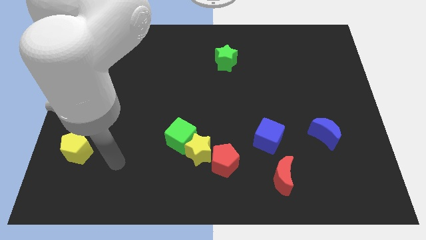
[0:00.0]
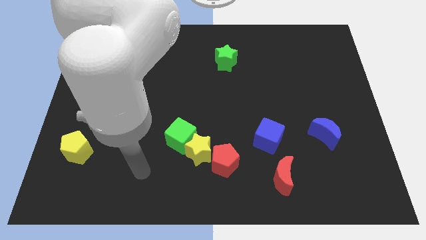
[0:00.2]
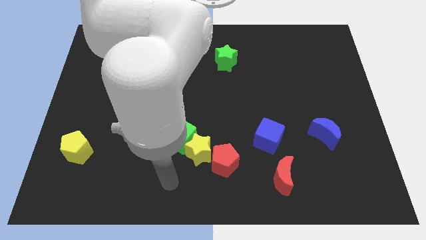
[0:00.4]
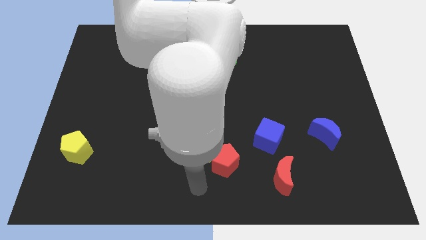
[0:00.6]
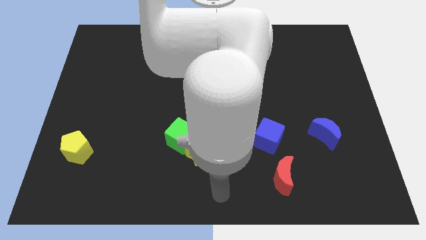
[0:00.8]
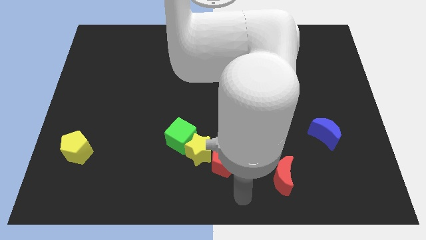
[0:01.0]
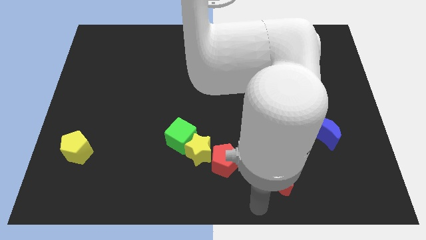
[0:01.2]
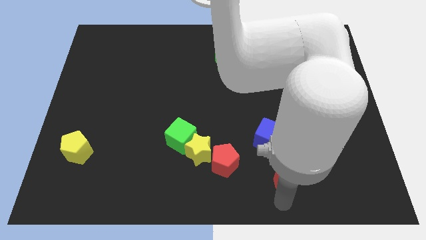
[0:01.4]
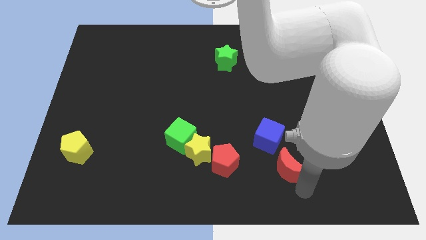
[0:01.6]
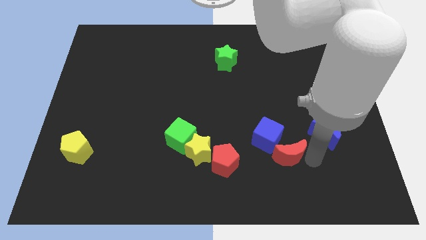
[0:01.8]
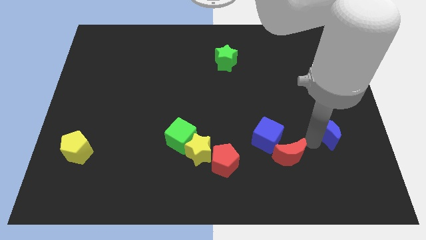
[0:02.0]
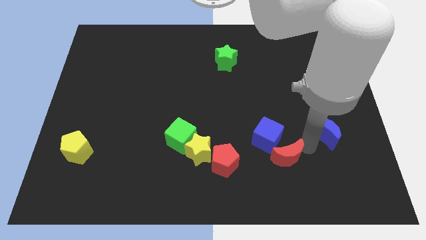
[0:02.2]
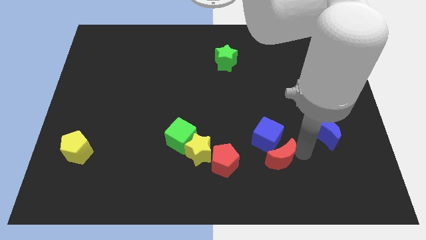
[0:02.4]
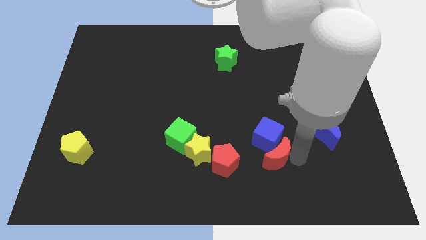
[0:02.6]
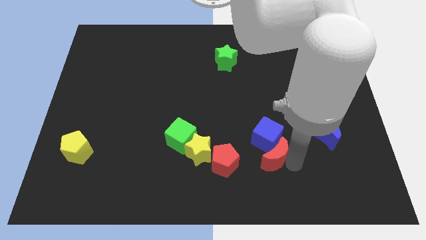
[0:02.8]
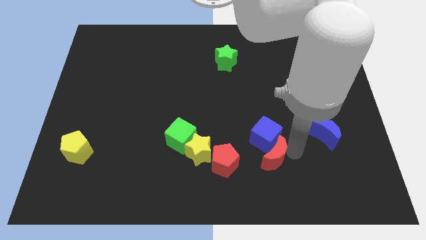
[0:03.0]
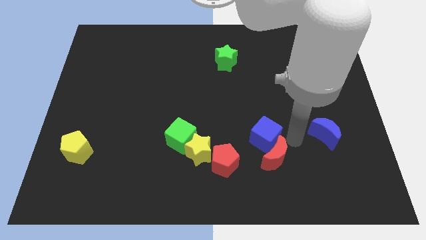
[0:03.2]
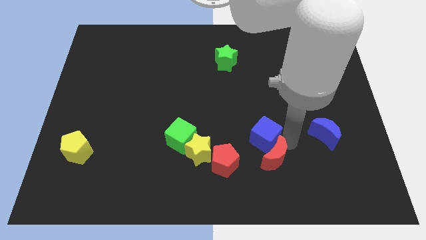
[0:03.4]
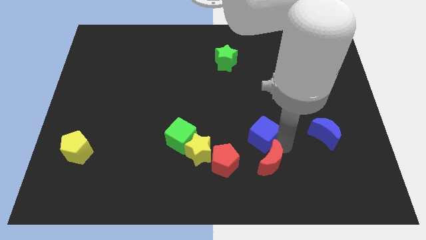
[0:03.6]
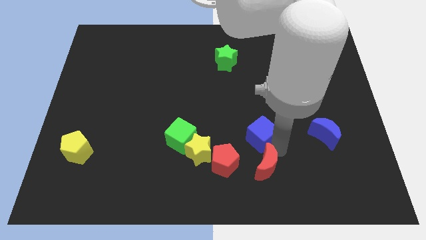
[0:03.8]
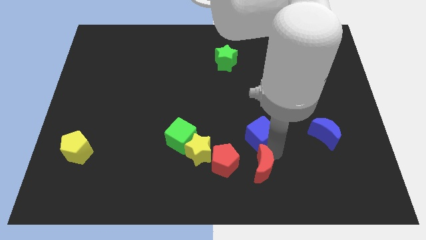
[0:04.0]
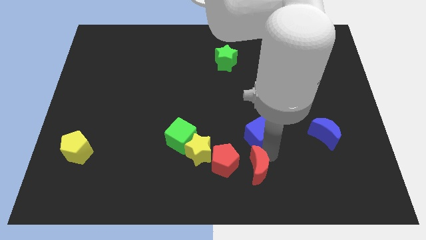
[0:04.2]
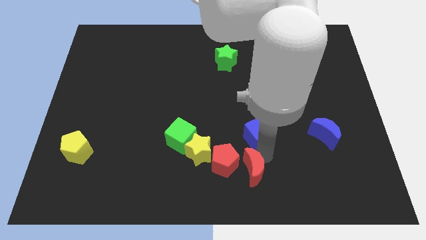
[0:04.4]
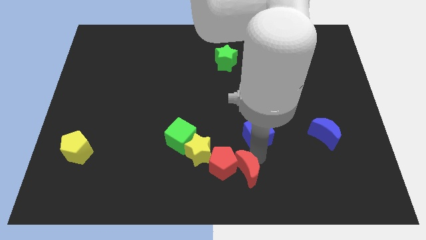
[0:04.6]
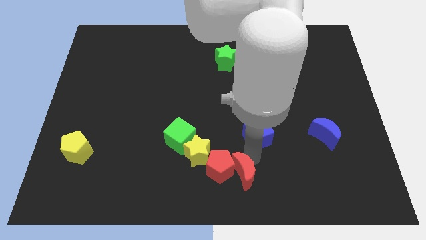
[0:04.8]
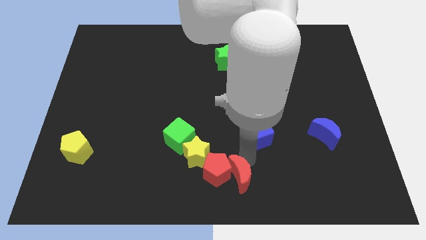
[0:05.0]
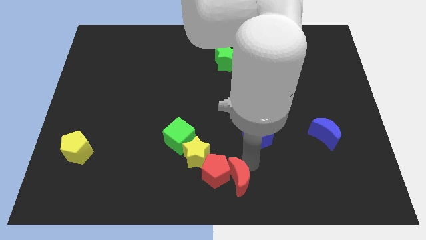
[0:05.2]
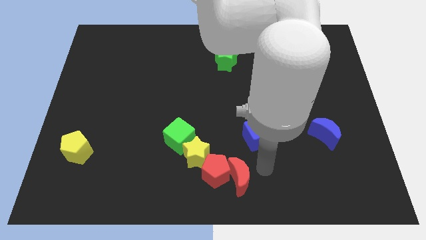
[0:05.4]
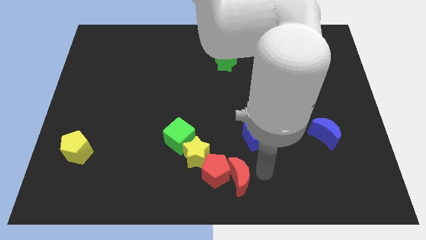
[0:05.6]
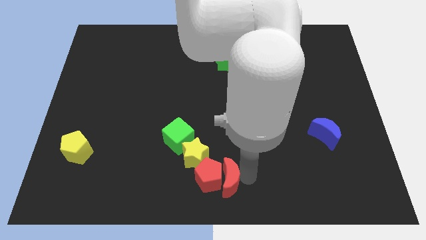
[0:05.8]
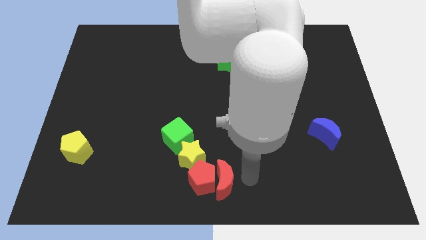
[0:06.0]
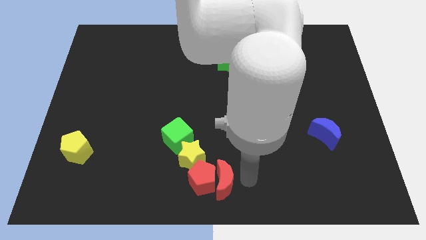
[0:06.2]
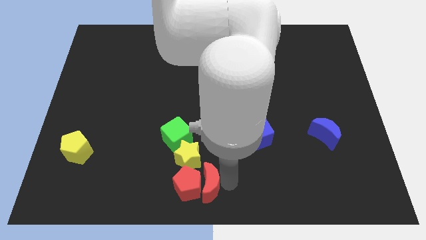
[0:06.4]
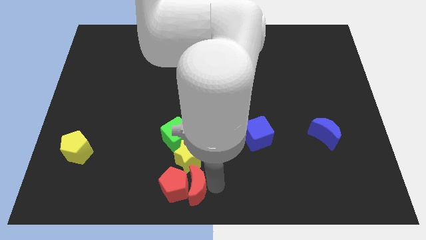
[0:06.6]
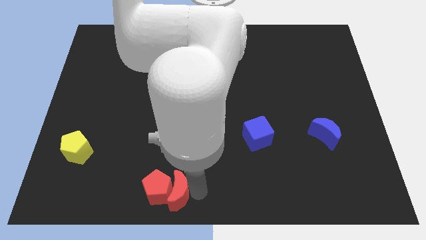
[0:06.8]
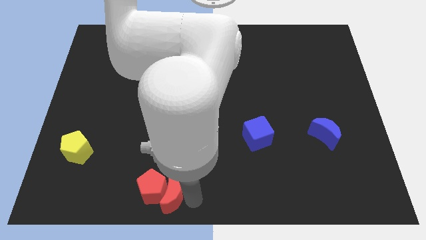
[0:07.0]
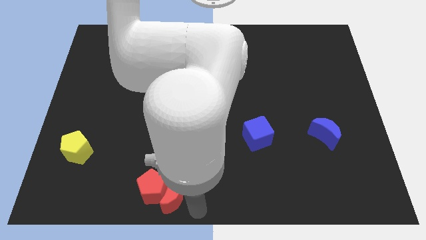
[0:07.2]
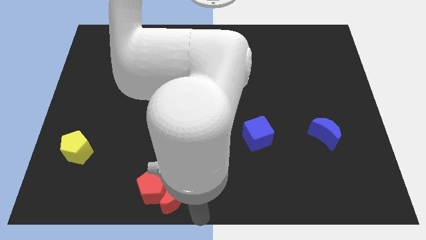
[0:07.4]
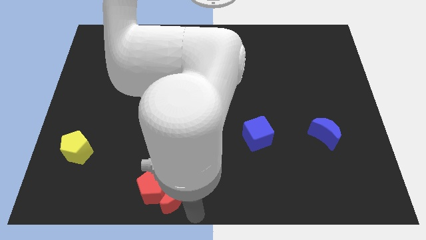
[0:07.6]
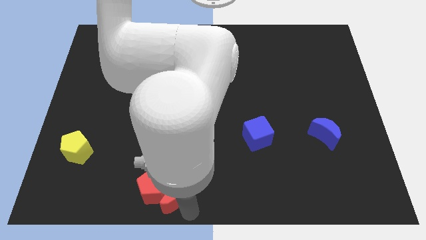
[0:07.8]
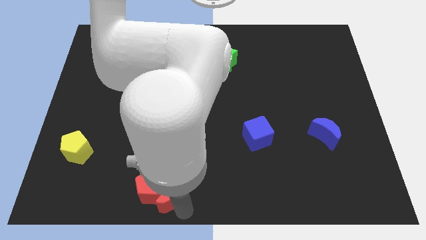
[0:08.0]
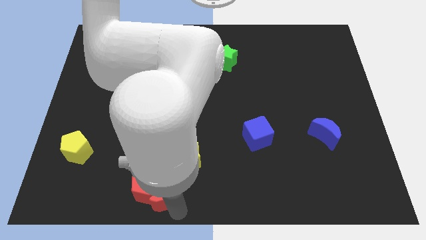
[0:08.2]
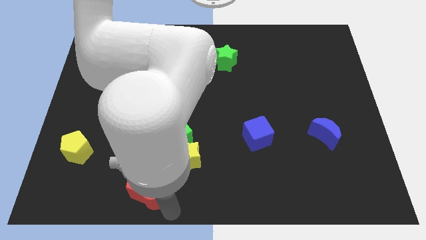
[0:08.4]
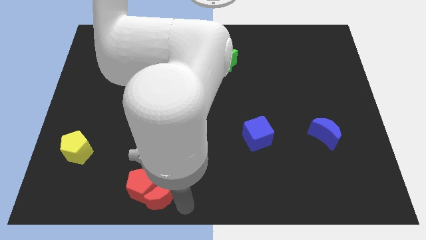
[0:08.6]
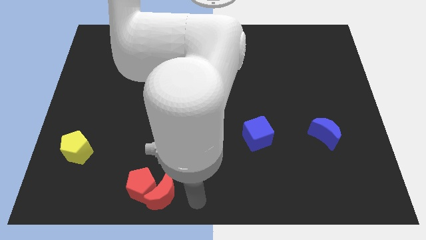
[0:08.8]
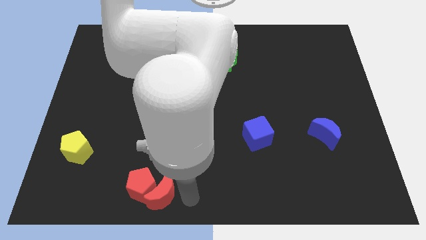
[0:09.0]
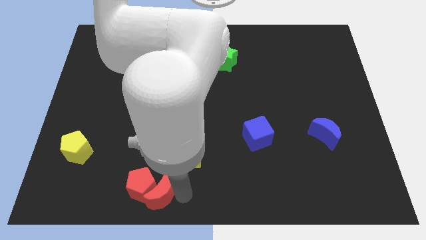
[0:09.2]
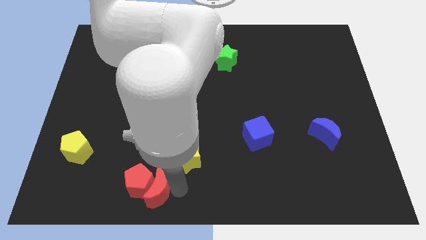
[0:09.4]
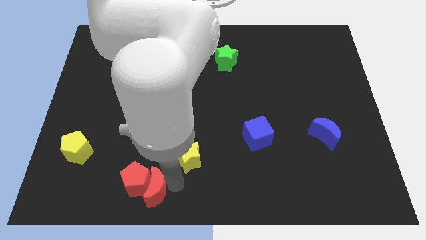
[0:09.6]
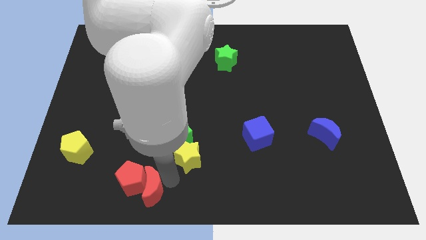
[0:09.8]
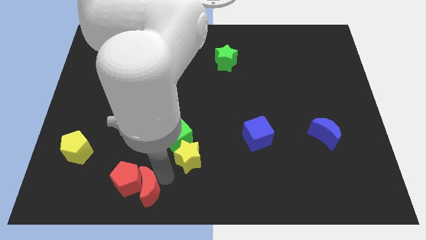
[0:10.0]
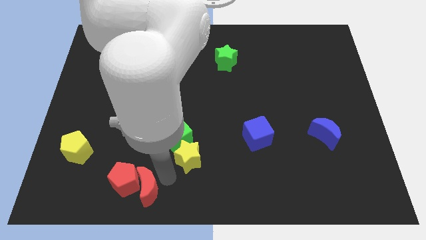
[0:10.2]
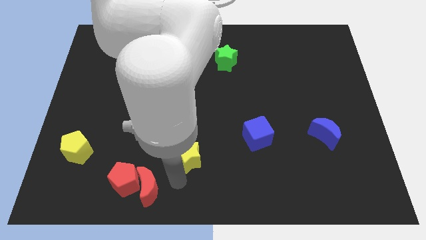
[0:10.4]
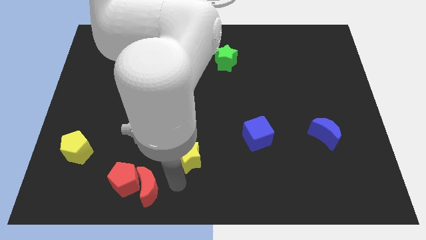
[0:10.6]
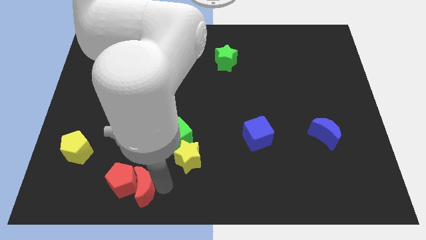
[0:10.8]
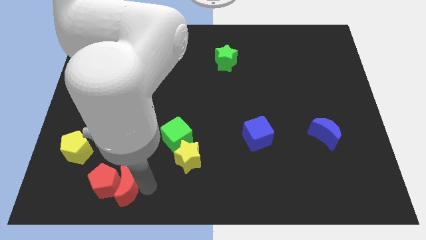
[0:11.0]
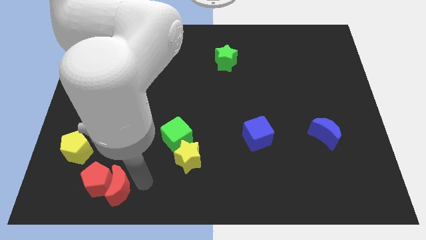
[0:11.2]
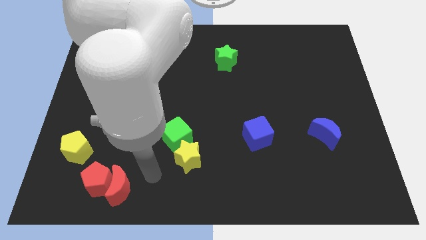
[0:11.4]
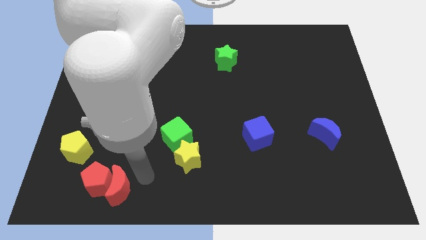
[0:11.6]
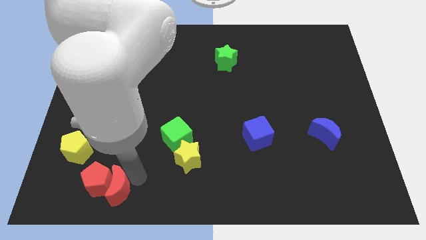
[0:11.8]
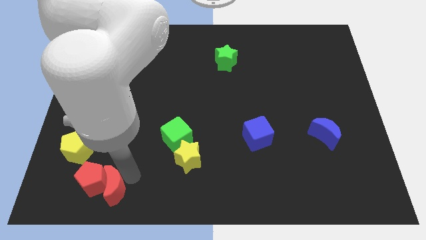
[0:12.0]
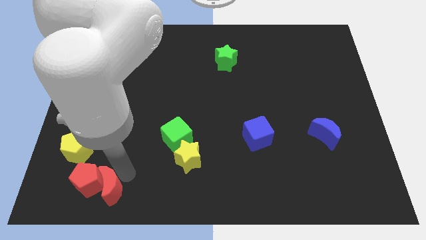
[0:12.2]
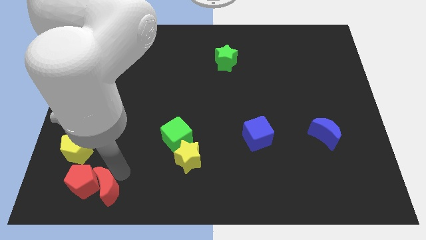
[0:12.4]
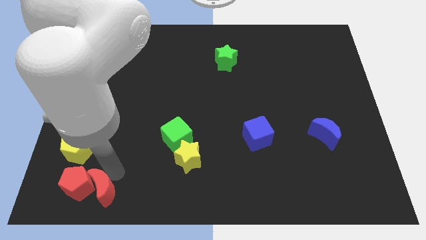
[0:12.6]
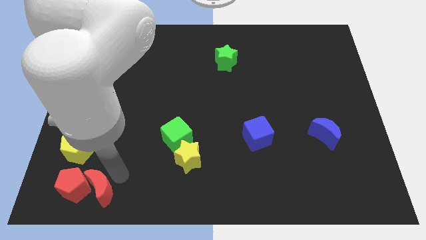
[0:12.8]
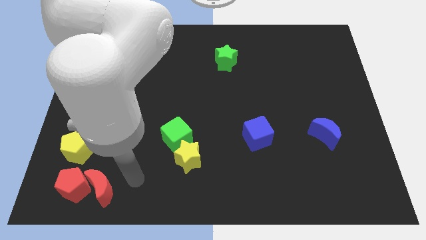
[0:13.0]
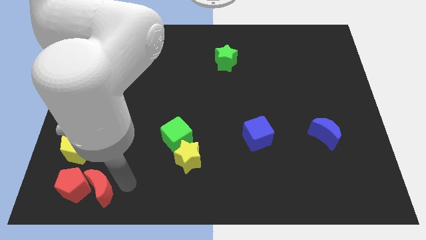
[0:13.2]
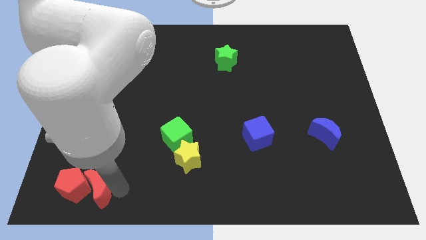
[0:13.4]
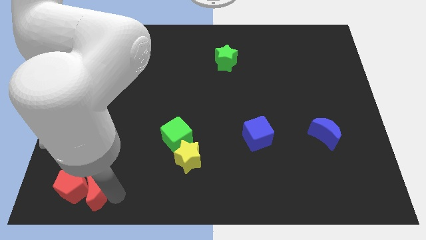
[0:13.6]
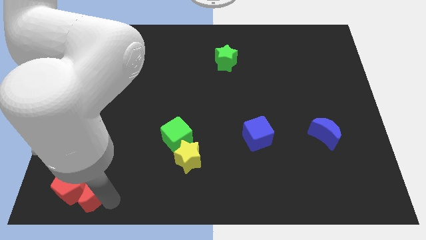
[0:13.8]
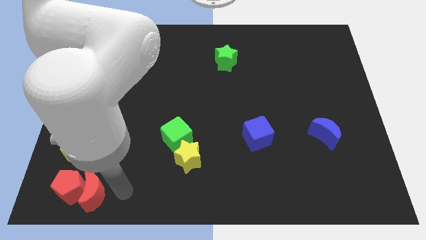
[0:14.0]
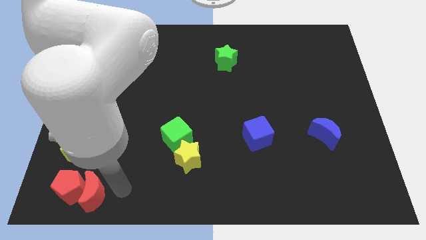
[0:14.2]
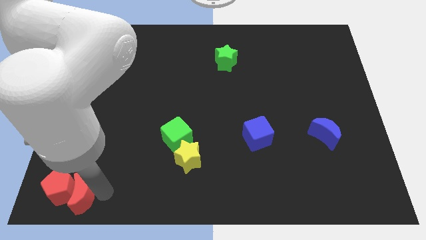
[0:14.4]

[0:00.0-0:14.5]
move the red moon to the lower left corner

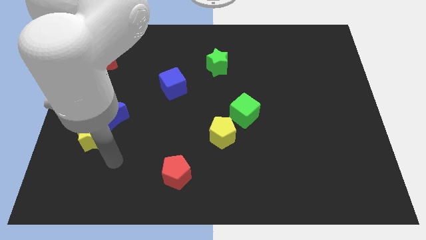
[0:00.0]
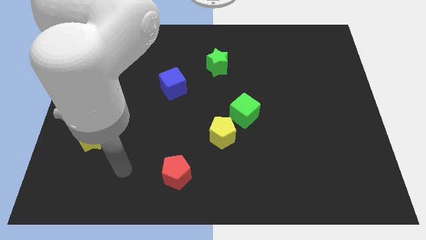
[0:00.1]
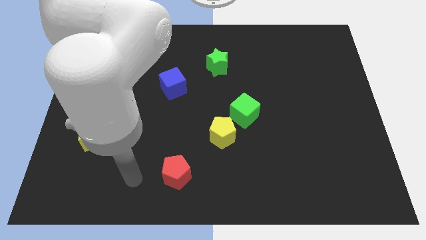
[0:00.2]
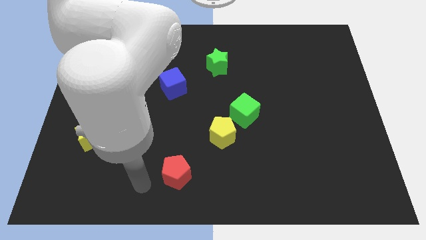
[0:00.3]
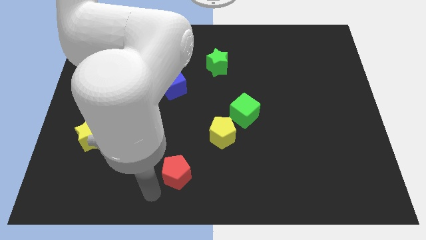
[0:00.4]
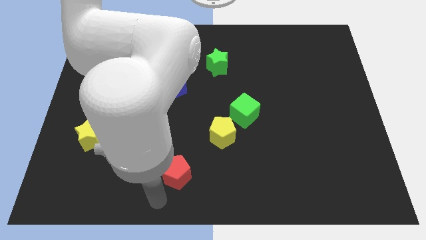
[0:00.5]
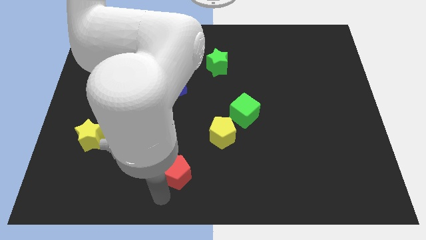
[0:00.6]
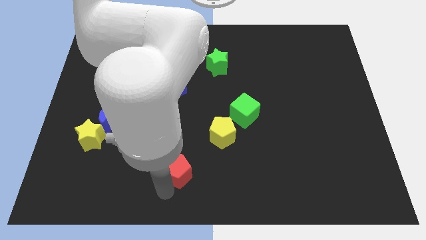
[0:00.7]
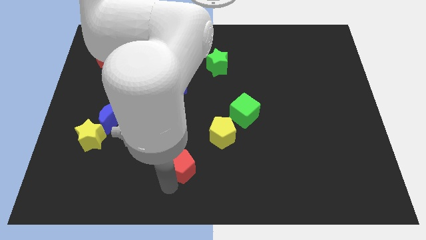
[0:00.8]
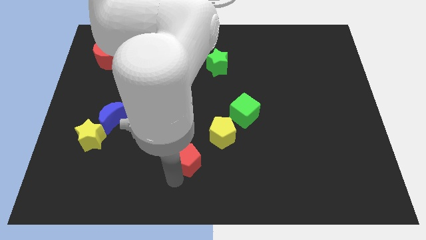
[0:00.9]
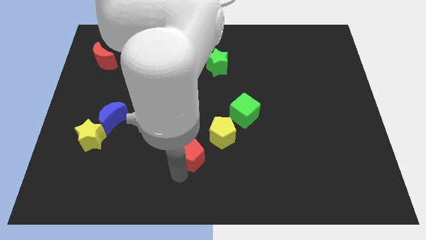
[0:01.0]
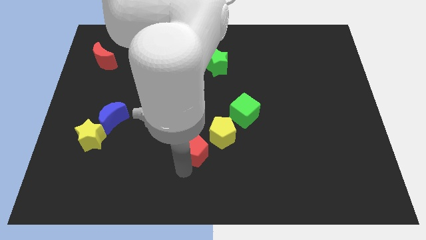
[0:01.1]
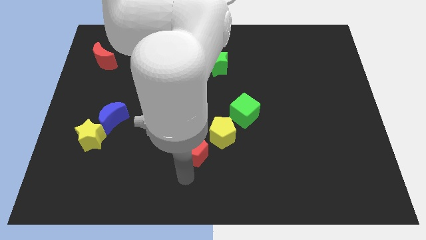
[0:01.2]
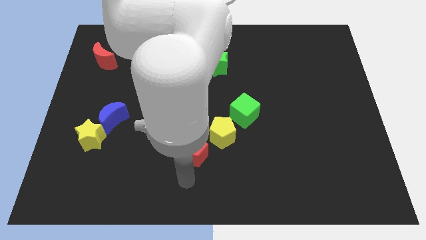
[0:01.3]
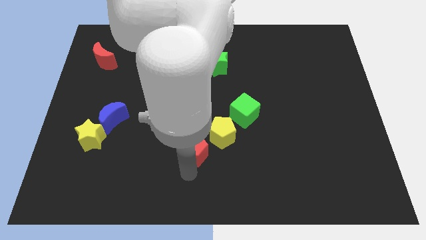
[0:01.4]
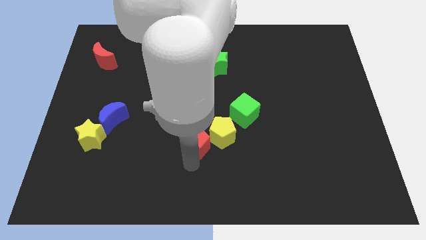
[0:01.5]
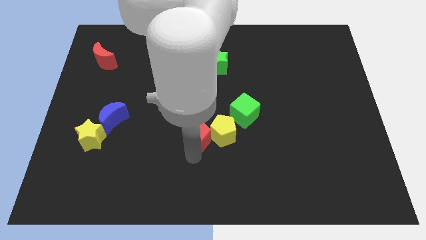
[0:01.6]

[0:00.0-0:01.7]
put the red pentagon to the center of the board
